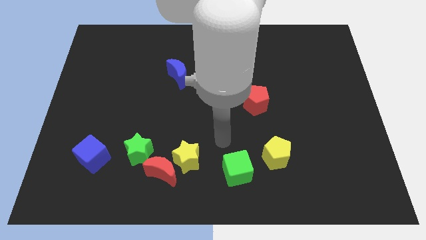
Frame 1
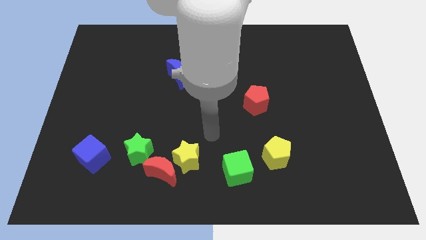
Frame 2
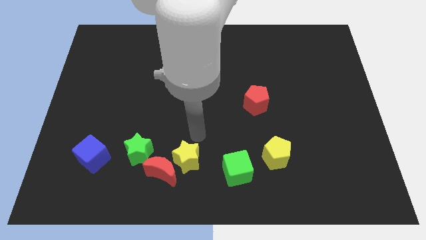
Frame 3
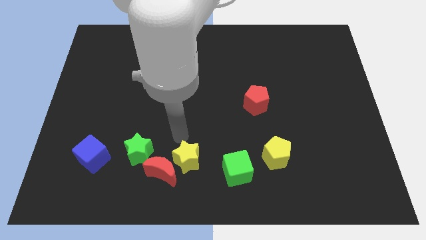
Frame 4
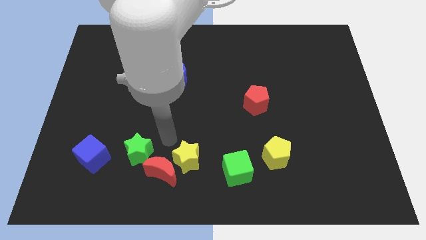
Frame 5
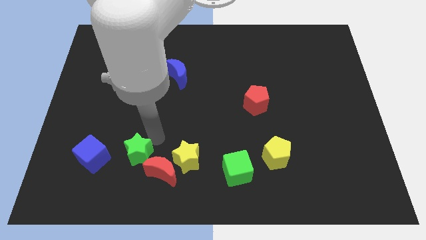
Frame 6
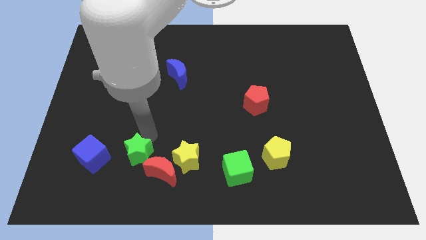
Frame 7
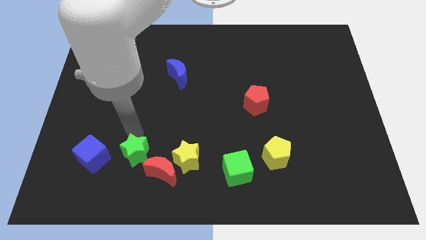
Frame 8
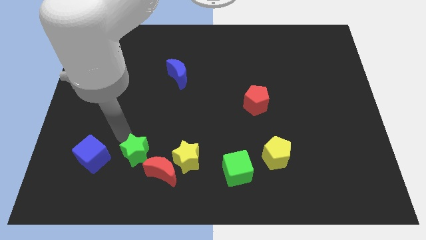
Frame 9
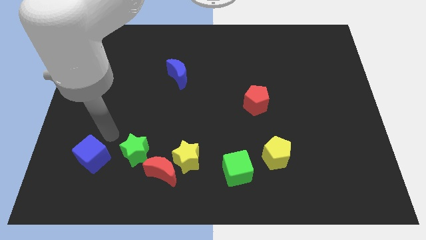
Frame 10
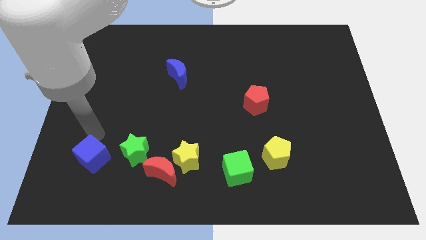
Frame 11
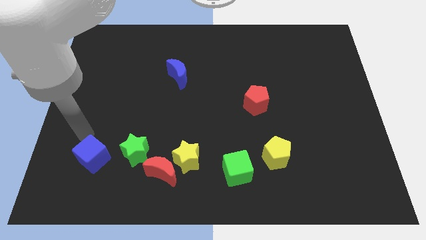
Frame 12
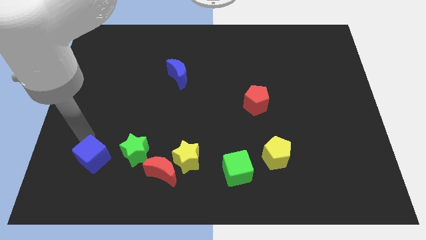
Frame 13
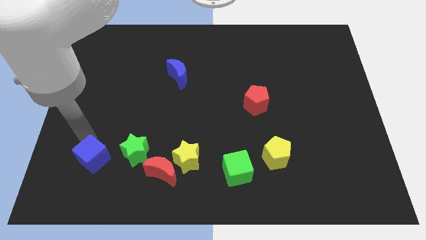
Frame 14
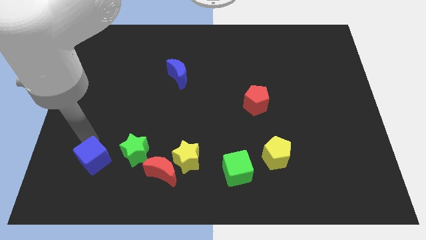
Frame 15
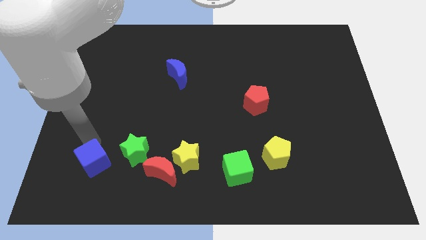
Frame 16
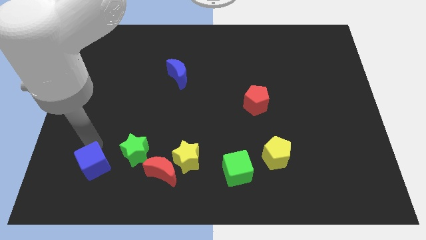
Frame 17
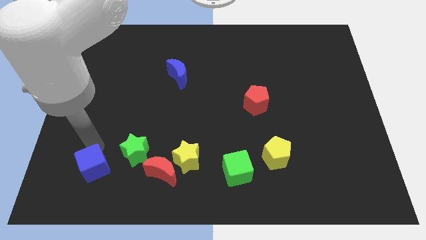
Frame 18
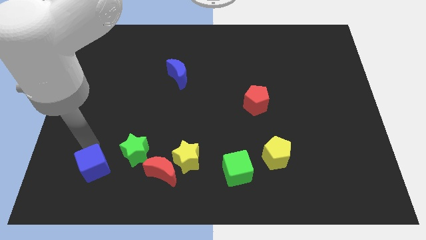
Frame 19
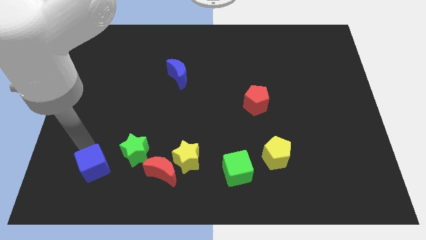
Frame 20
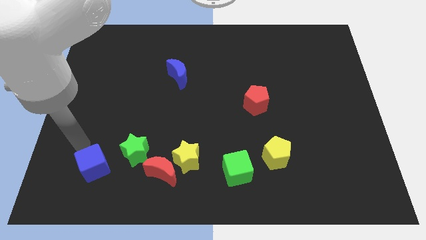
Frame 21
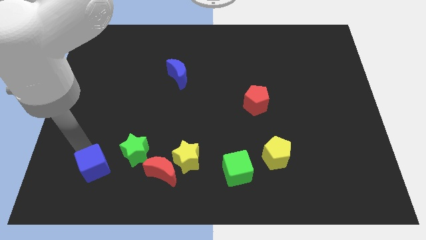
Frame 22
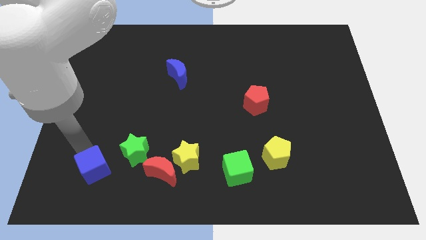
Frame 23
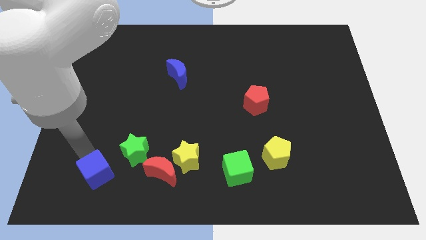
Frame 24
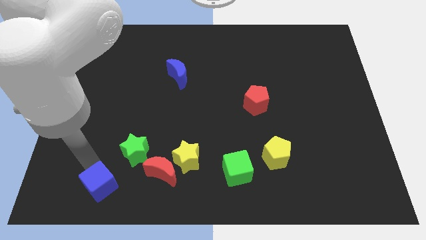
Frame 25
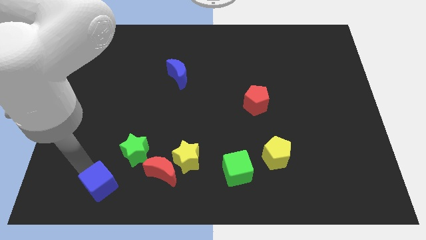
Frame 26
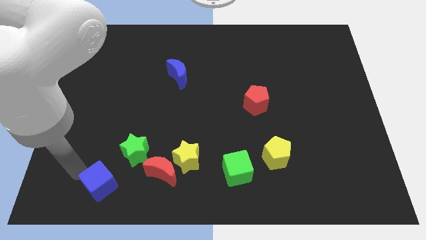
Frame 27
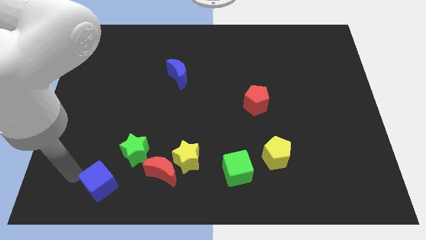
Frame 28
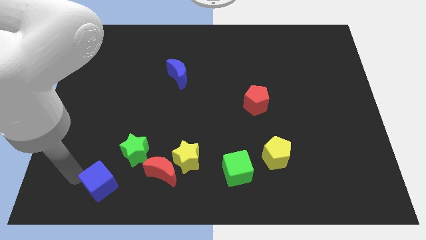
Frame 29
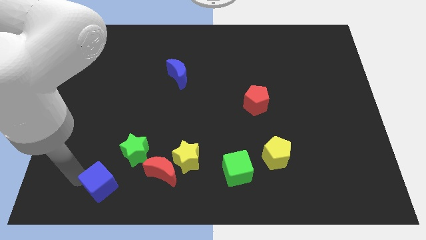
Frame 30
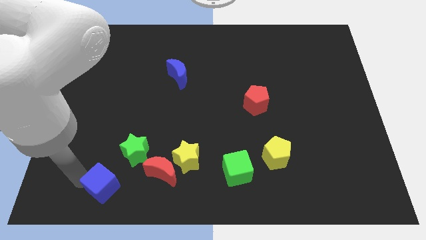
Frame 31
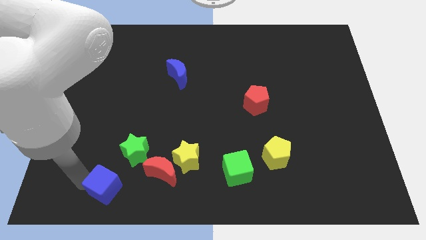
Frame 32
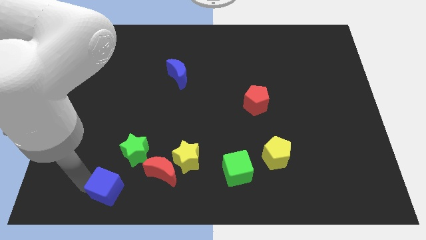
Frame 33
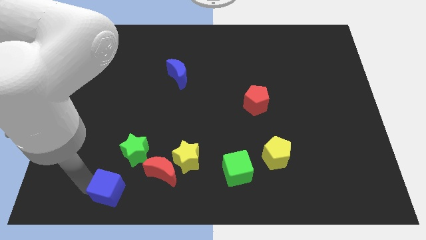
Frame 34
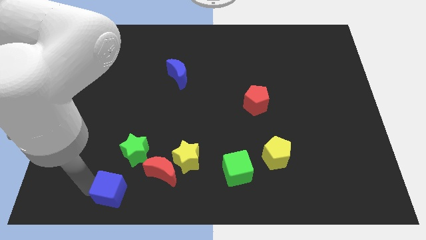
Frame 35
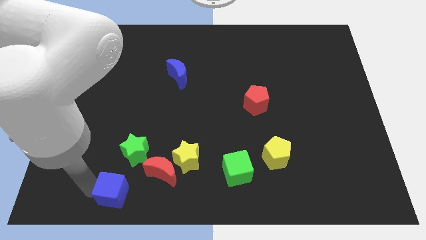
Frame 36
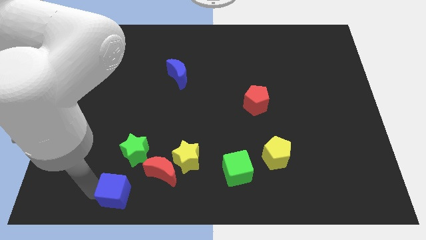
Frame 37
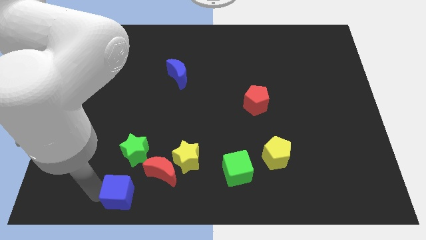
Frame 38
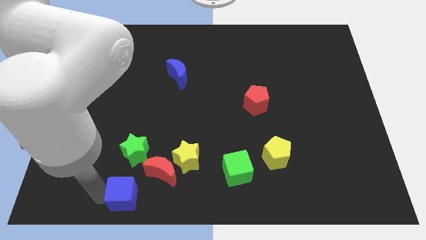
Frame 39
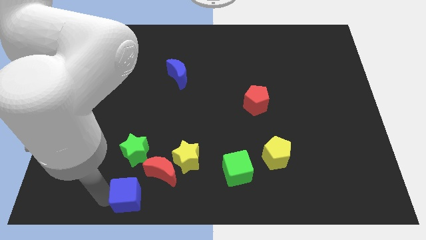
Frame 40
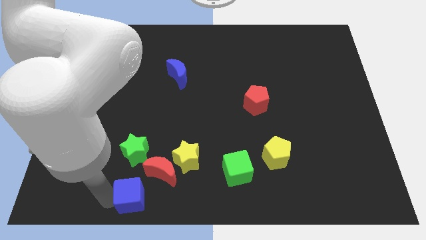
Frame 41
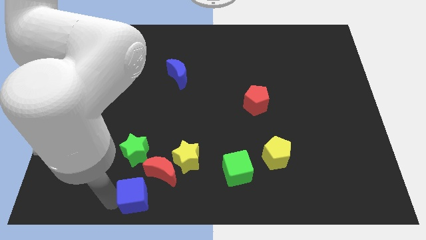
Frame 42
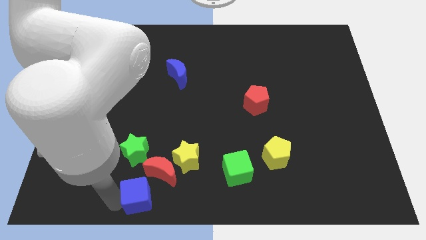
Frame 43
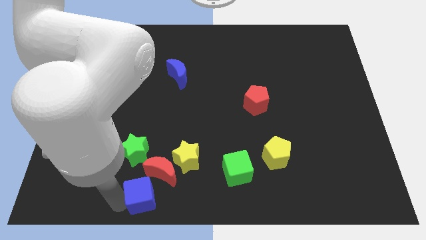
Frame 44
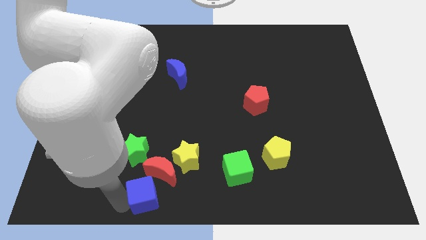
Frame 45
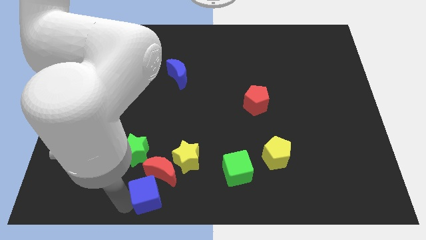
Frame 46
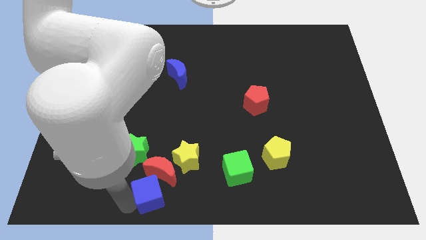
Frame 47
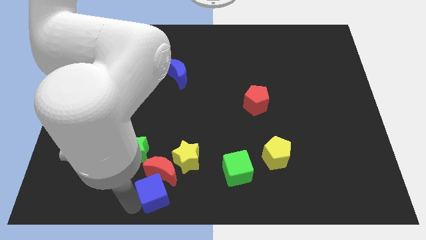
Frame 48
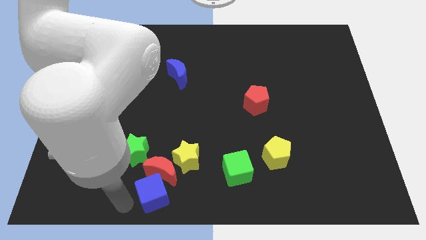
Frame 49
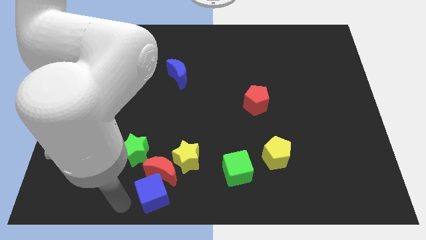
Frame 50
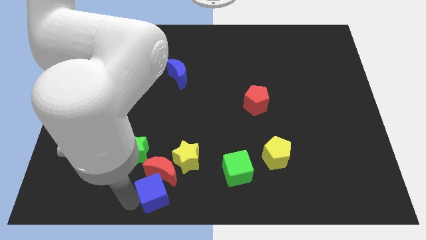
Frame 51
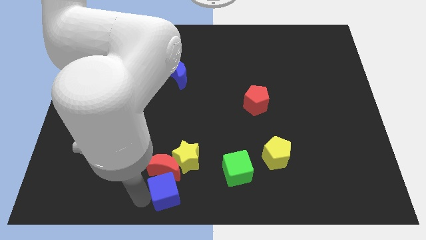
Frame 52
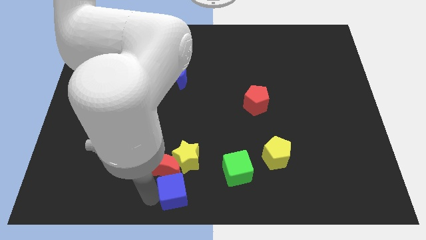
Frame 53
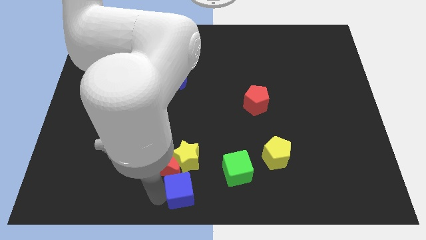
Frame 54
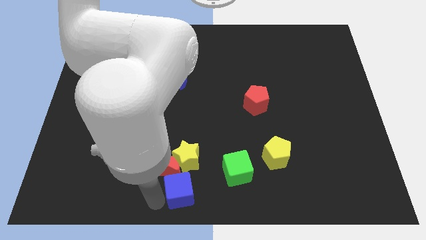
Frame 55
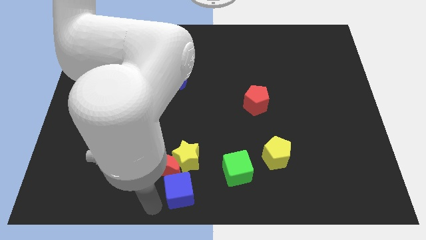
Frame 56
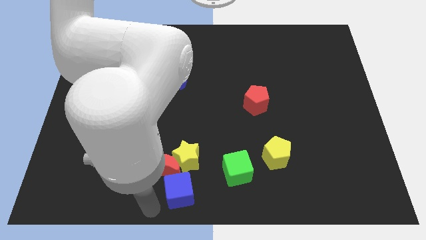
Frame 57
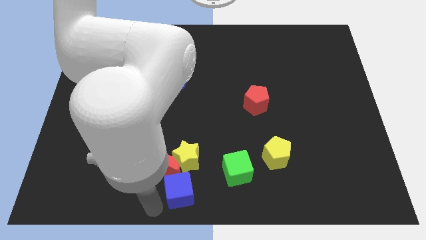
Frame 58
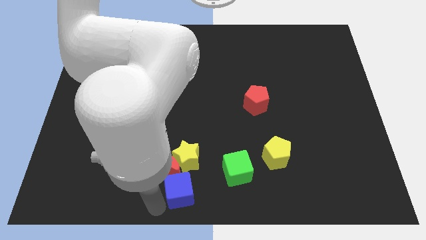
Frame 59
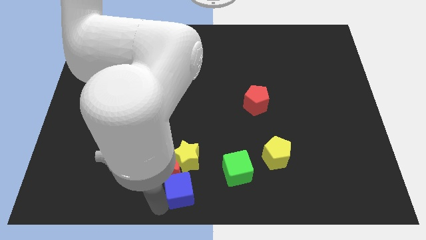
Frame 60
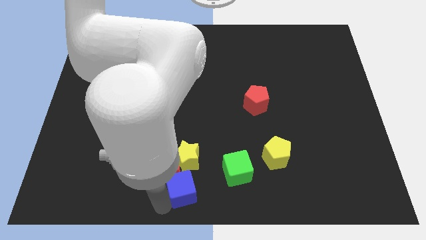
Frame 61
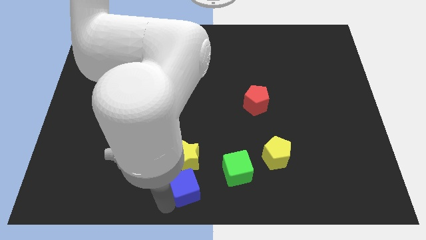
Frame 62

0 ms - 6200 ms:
slide the blue cube to the bottom right of the yellow star
